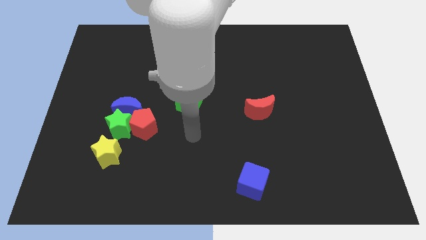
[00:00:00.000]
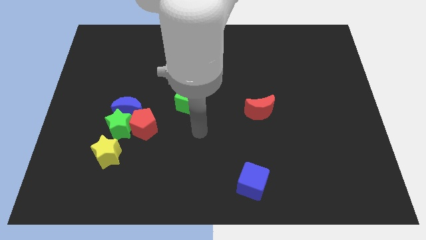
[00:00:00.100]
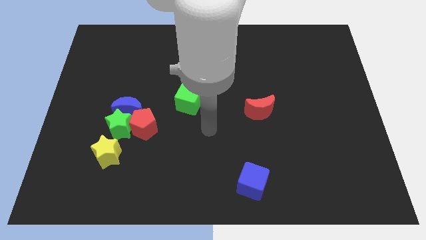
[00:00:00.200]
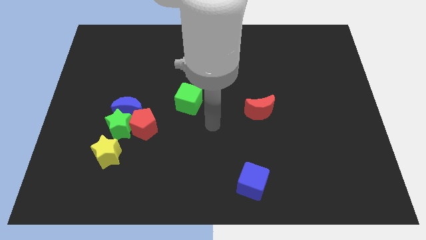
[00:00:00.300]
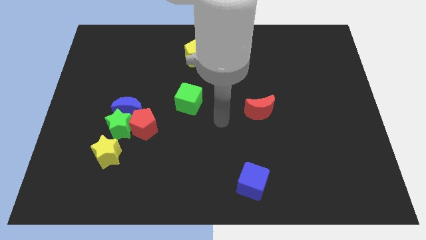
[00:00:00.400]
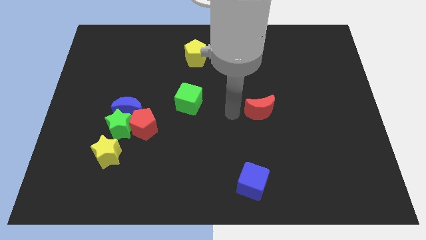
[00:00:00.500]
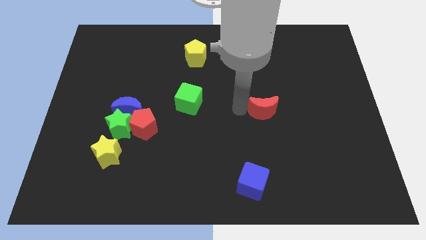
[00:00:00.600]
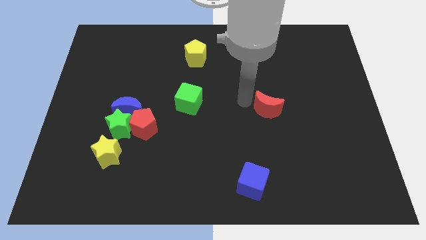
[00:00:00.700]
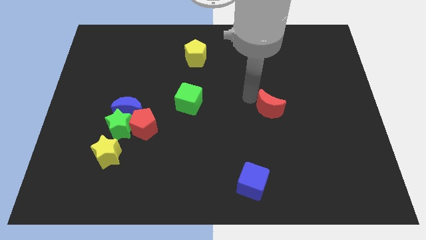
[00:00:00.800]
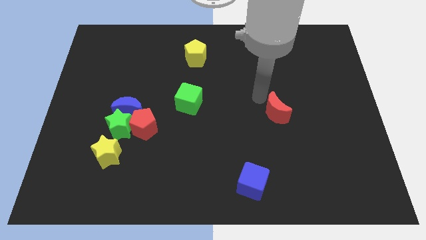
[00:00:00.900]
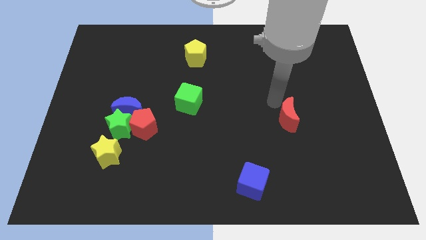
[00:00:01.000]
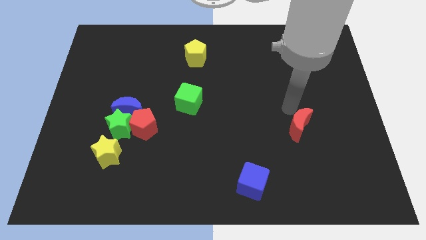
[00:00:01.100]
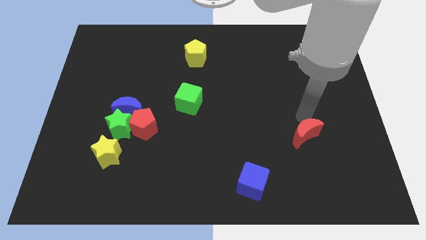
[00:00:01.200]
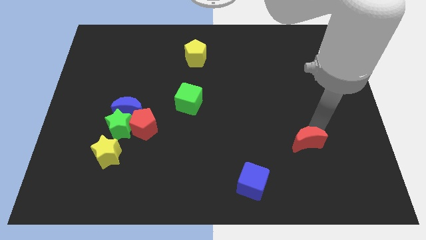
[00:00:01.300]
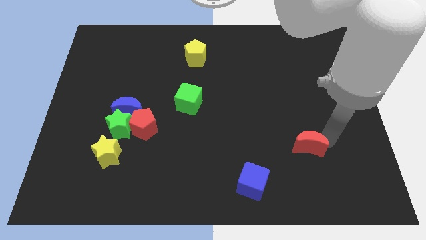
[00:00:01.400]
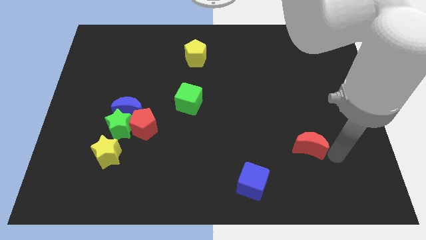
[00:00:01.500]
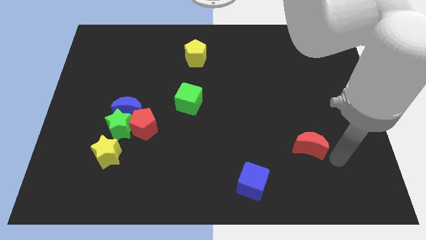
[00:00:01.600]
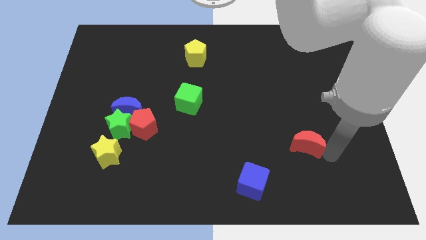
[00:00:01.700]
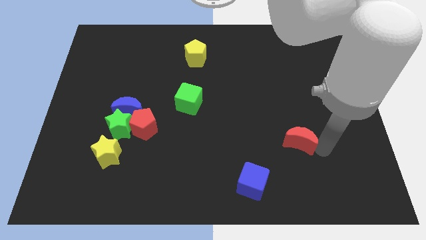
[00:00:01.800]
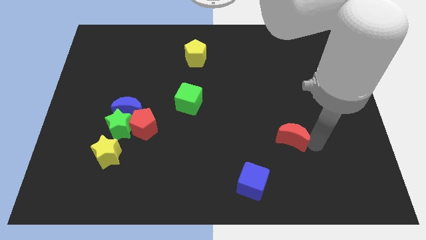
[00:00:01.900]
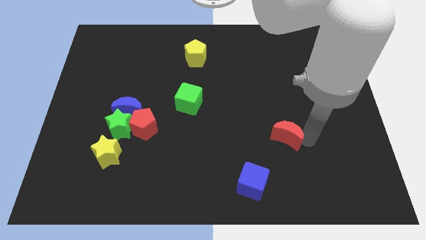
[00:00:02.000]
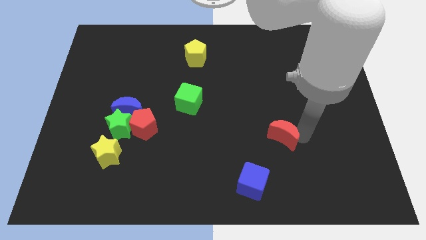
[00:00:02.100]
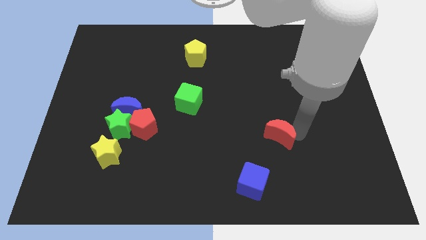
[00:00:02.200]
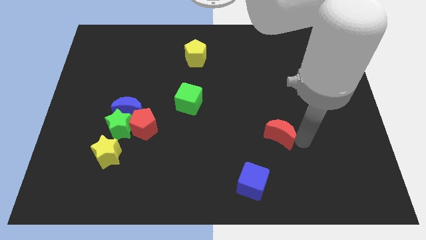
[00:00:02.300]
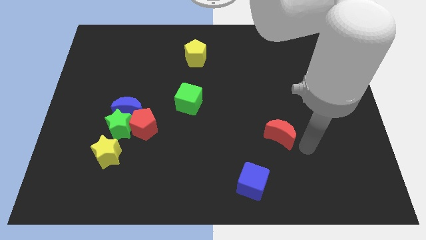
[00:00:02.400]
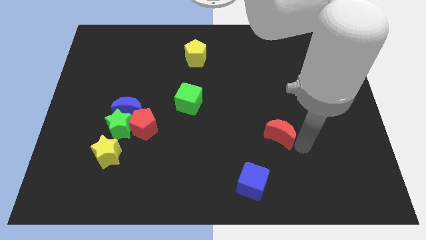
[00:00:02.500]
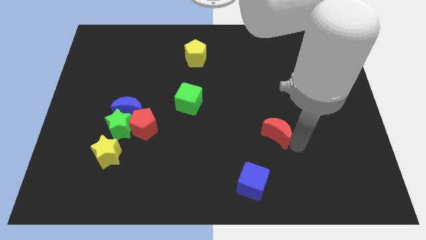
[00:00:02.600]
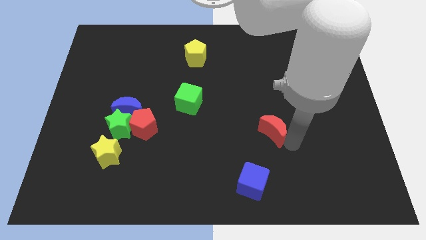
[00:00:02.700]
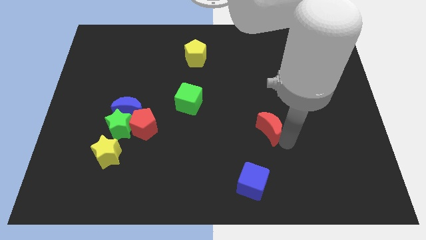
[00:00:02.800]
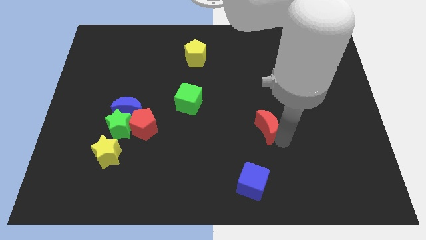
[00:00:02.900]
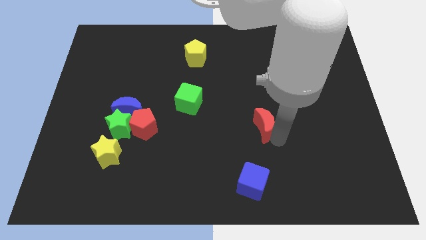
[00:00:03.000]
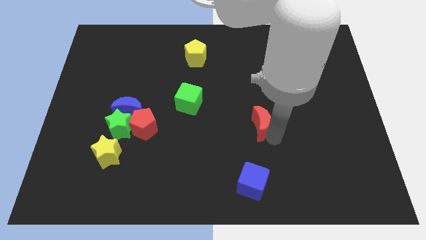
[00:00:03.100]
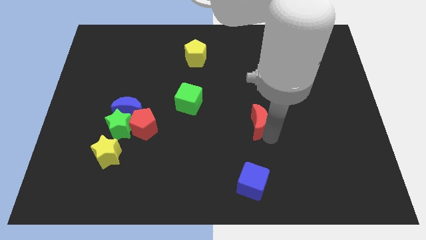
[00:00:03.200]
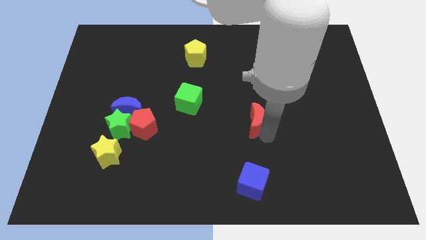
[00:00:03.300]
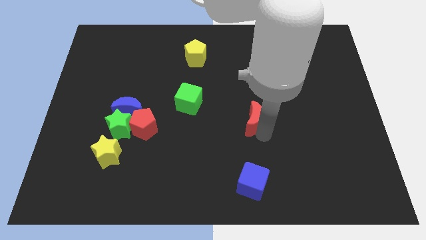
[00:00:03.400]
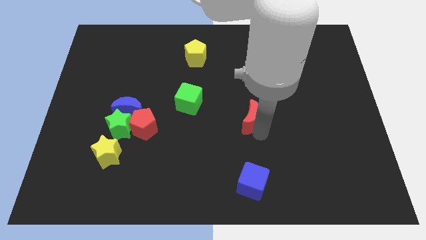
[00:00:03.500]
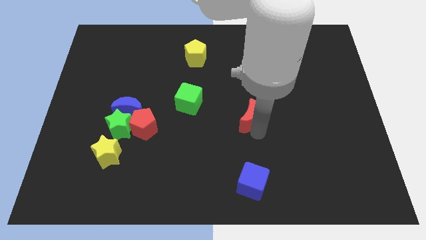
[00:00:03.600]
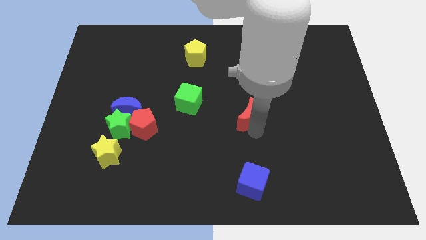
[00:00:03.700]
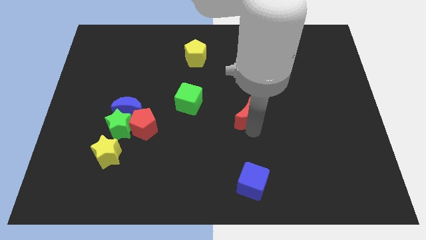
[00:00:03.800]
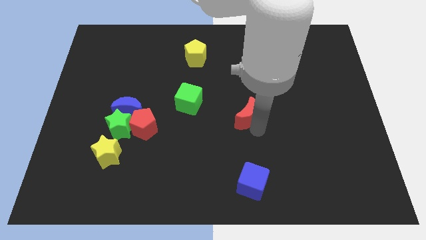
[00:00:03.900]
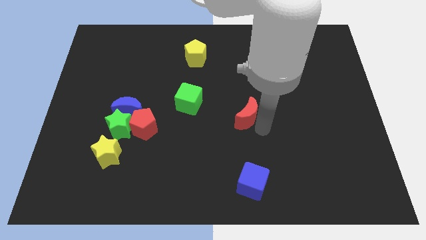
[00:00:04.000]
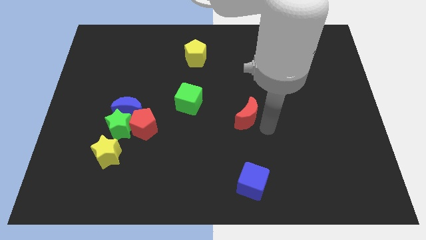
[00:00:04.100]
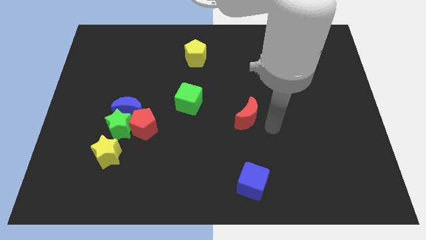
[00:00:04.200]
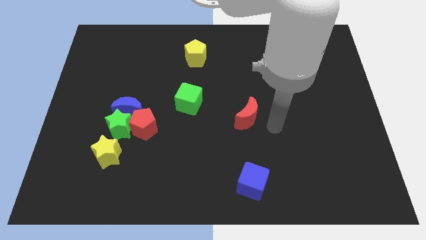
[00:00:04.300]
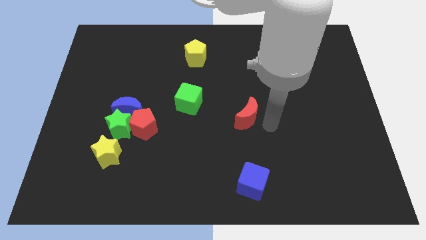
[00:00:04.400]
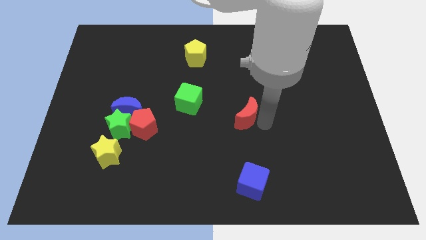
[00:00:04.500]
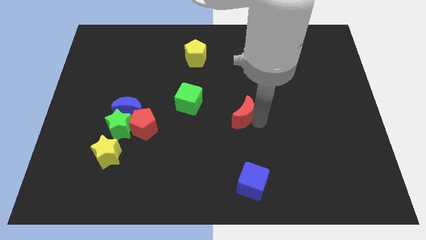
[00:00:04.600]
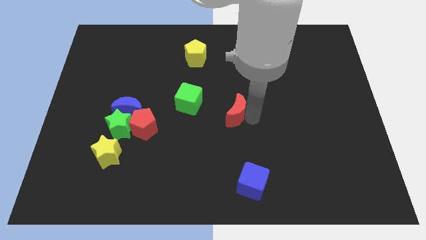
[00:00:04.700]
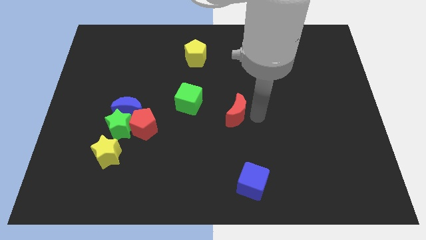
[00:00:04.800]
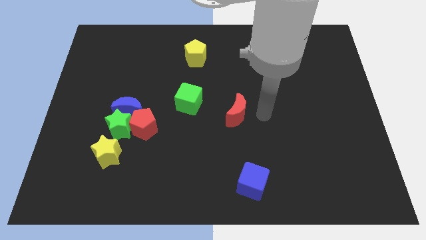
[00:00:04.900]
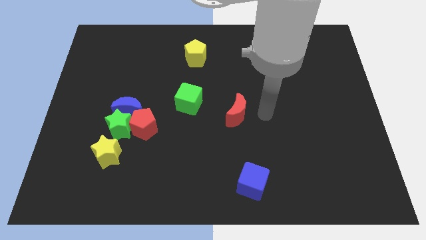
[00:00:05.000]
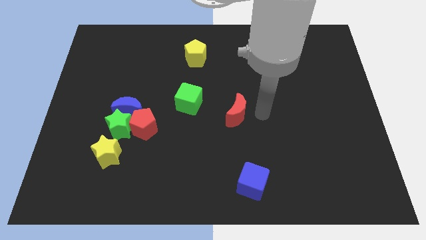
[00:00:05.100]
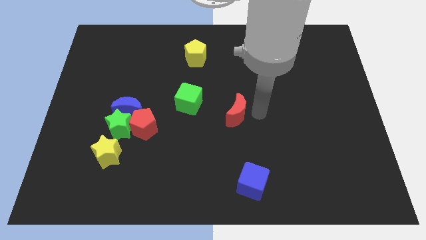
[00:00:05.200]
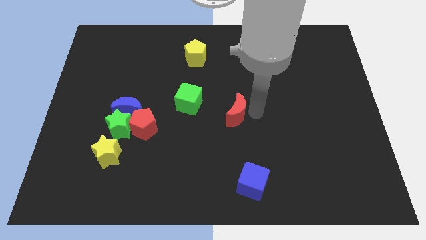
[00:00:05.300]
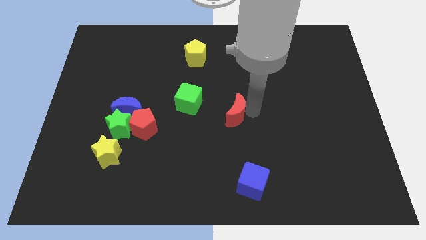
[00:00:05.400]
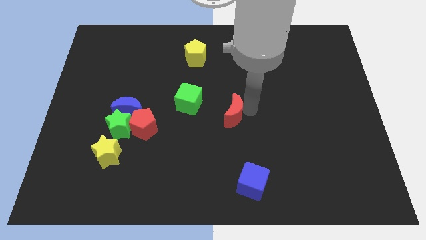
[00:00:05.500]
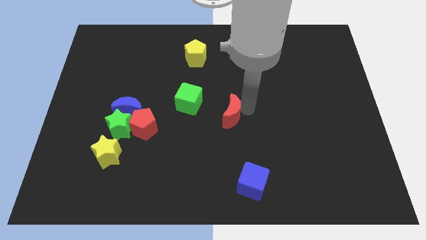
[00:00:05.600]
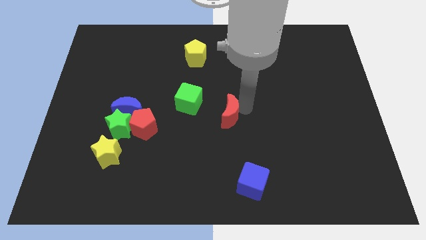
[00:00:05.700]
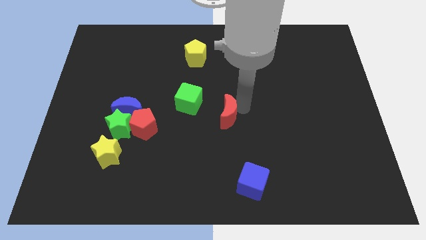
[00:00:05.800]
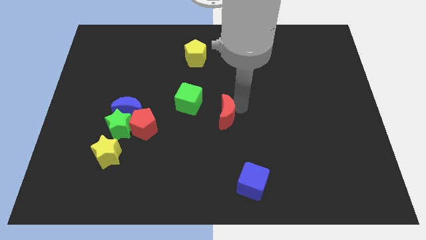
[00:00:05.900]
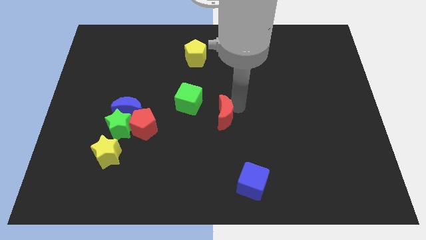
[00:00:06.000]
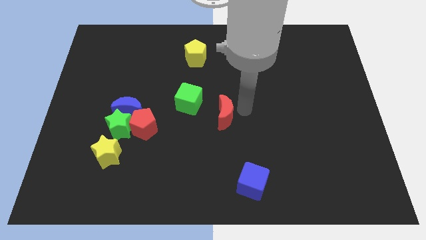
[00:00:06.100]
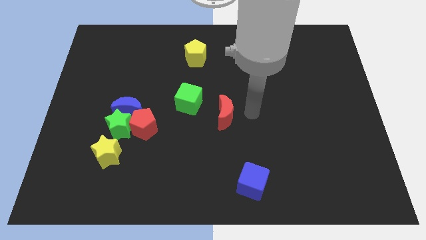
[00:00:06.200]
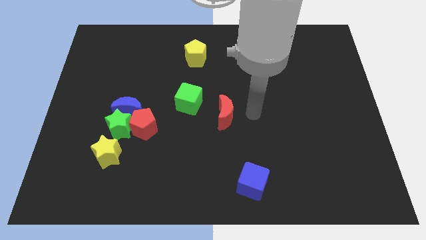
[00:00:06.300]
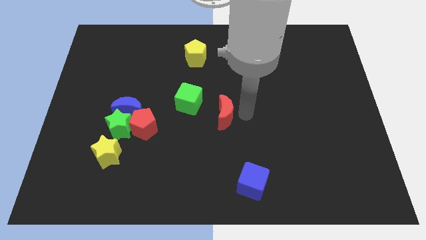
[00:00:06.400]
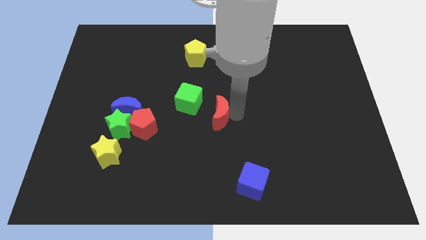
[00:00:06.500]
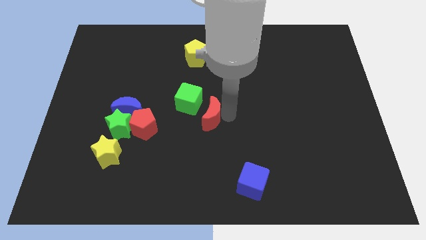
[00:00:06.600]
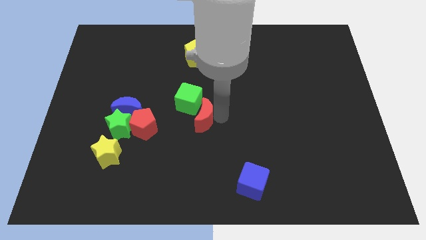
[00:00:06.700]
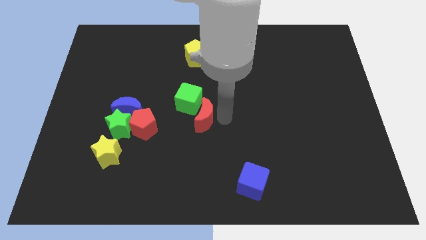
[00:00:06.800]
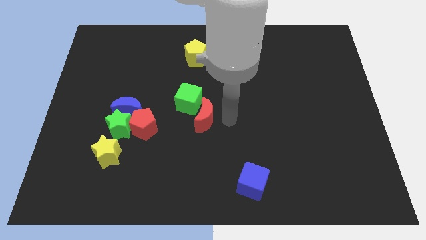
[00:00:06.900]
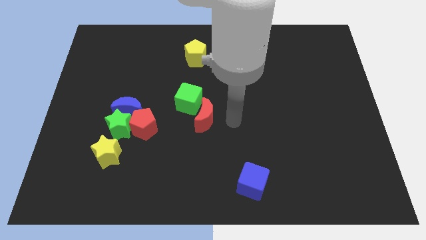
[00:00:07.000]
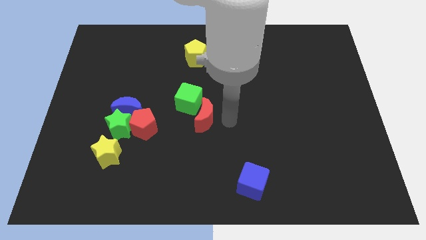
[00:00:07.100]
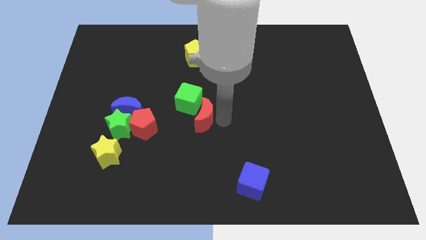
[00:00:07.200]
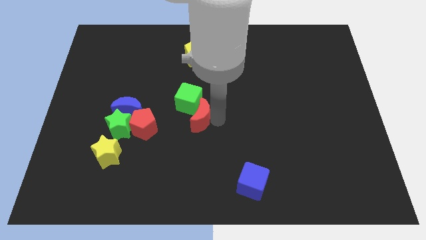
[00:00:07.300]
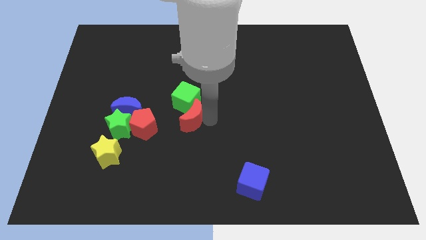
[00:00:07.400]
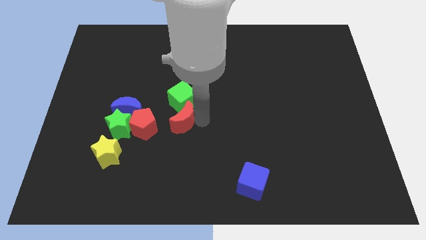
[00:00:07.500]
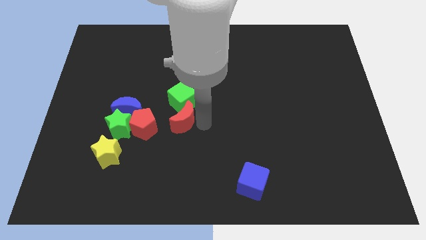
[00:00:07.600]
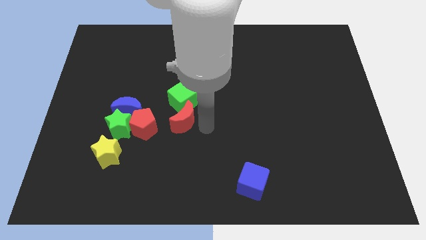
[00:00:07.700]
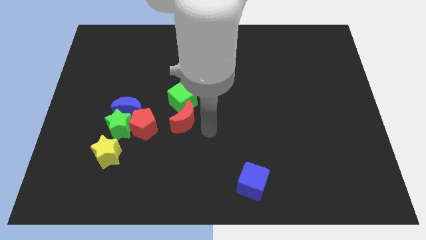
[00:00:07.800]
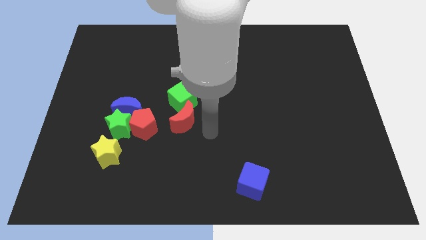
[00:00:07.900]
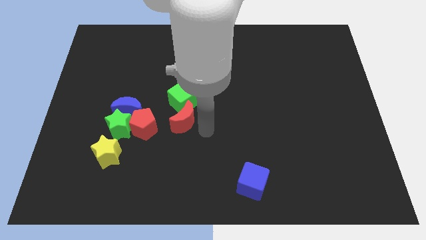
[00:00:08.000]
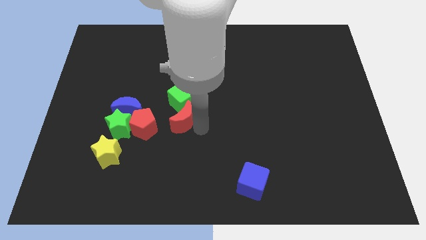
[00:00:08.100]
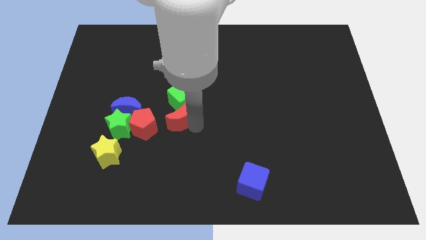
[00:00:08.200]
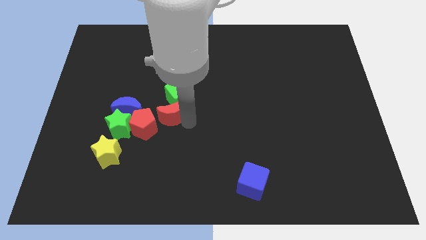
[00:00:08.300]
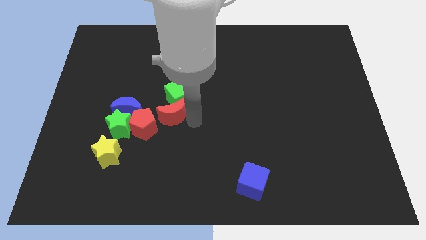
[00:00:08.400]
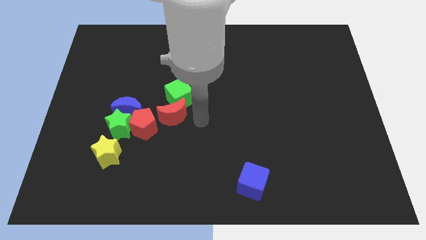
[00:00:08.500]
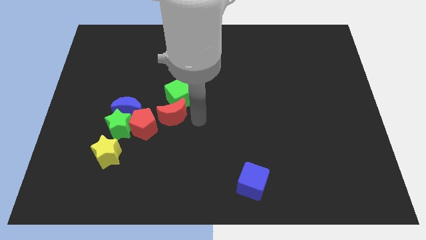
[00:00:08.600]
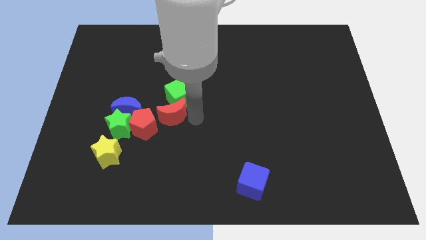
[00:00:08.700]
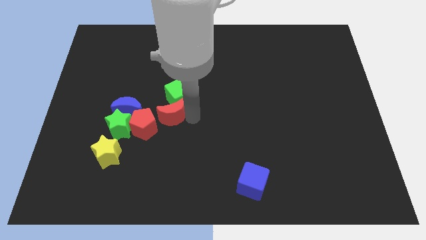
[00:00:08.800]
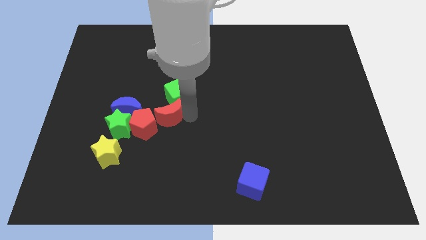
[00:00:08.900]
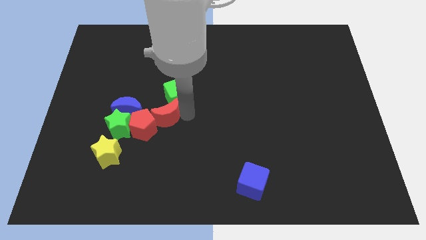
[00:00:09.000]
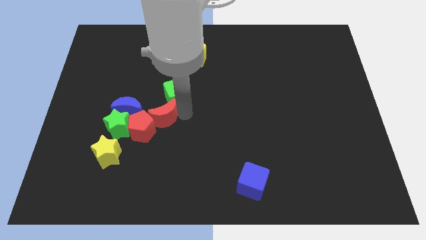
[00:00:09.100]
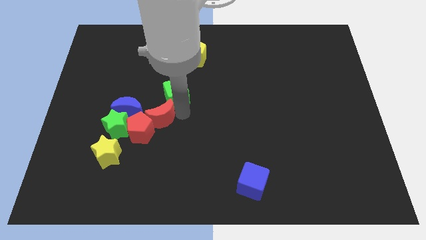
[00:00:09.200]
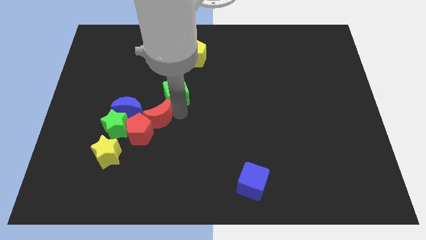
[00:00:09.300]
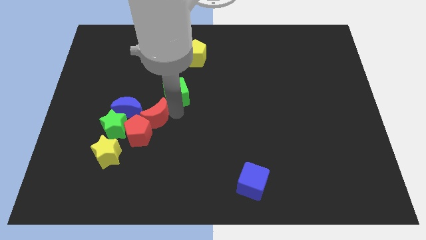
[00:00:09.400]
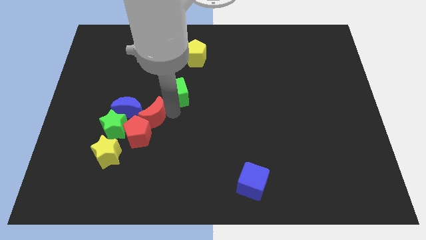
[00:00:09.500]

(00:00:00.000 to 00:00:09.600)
move the red moon towards the blue moon
